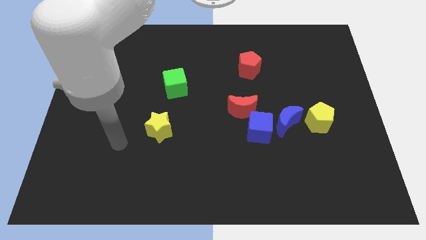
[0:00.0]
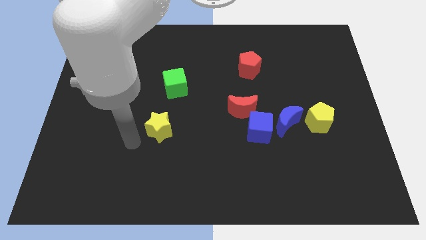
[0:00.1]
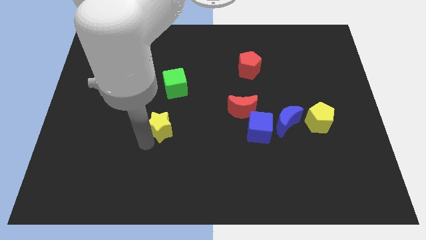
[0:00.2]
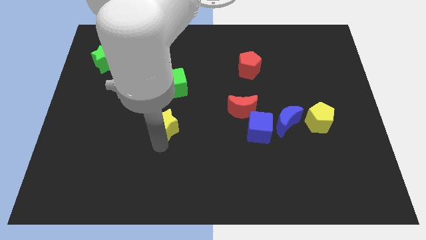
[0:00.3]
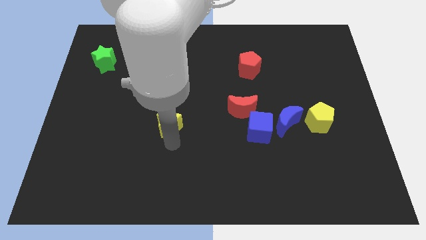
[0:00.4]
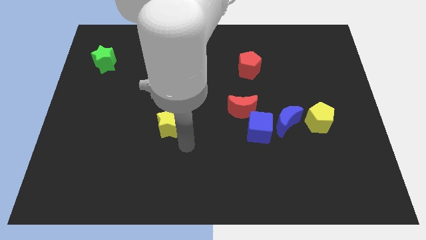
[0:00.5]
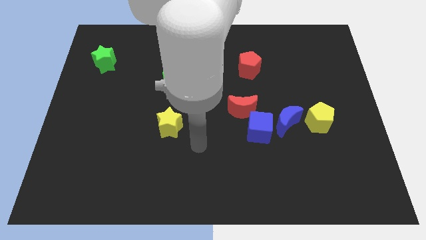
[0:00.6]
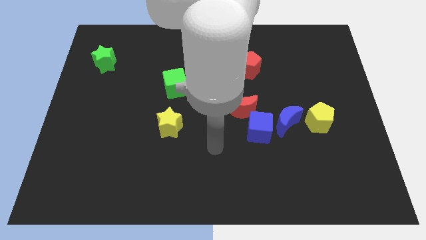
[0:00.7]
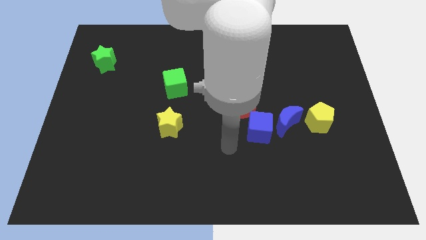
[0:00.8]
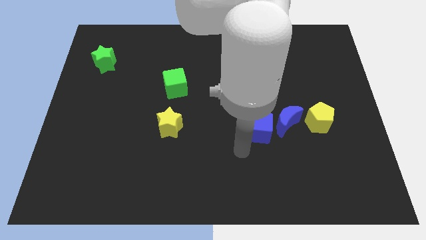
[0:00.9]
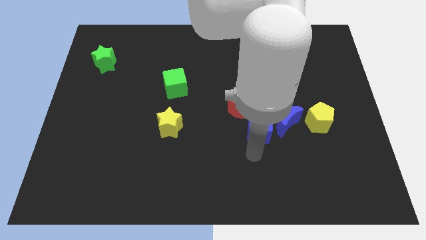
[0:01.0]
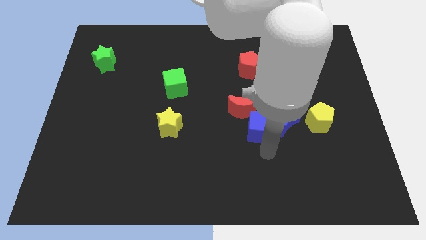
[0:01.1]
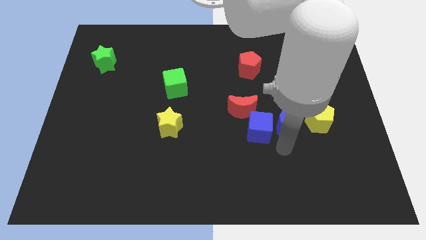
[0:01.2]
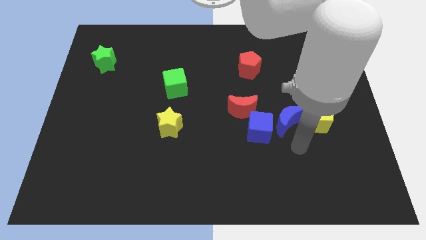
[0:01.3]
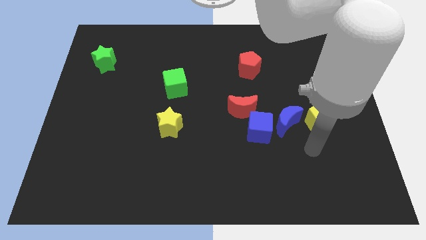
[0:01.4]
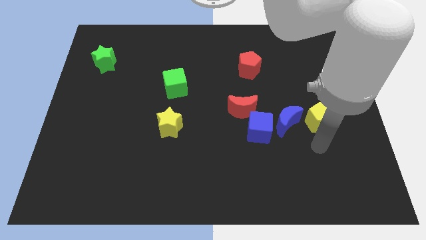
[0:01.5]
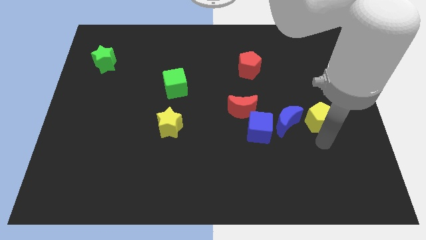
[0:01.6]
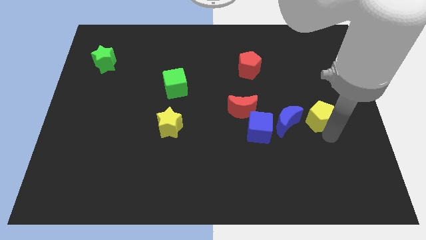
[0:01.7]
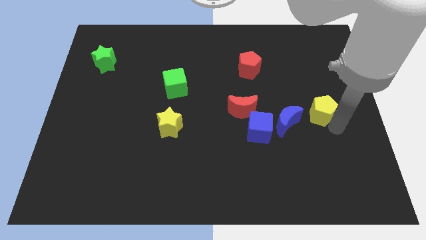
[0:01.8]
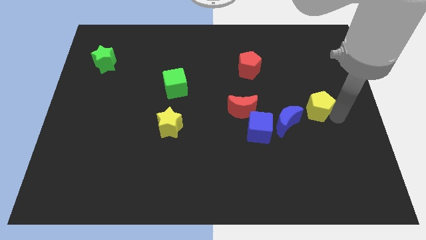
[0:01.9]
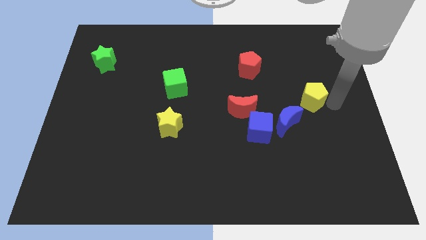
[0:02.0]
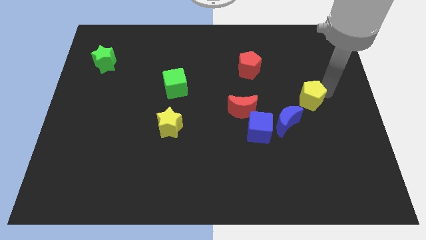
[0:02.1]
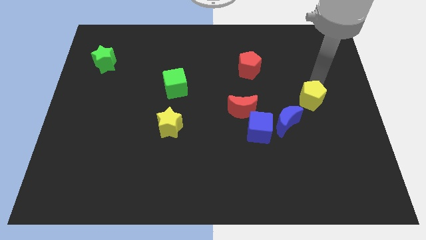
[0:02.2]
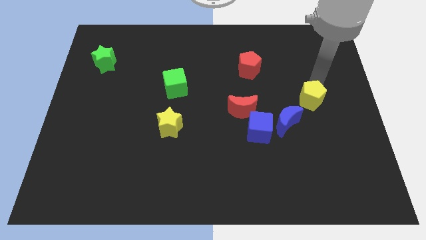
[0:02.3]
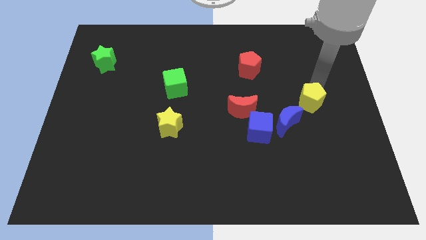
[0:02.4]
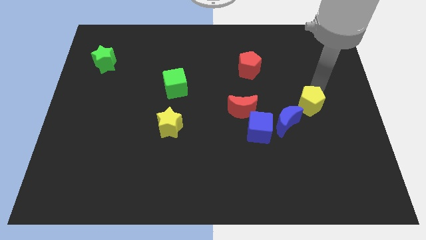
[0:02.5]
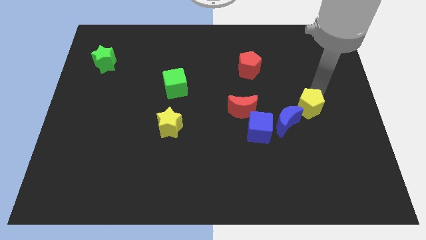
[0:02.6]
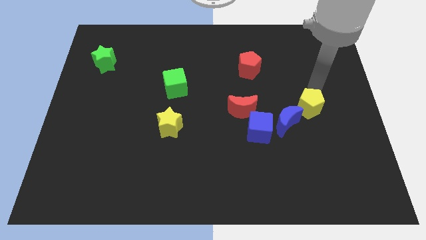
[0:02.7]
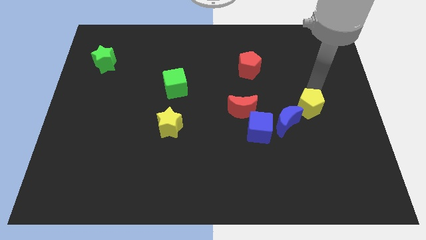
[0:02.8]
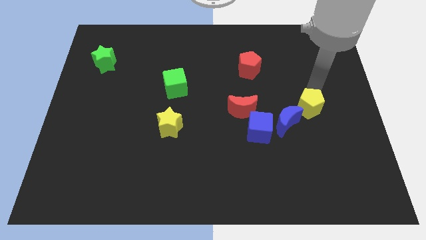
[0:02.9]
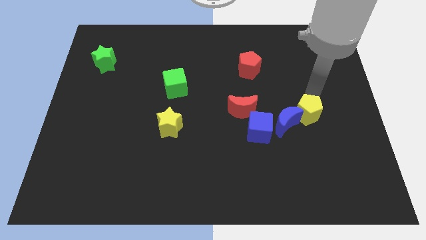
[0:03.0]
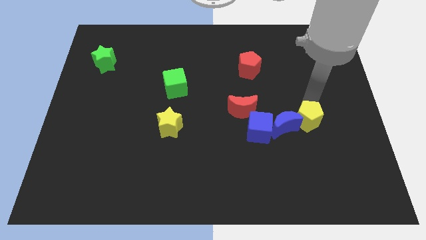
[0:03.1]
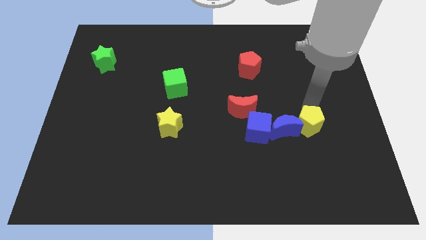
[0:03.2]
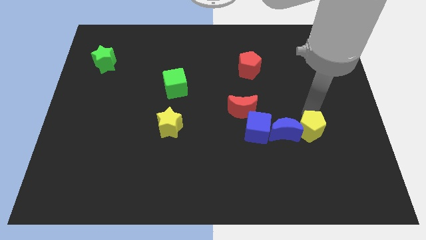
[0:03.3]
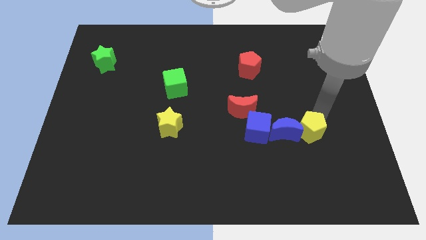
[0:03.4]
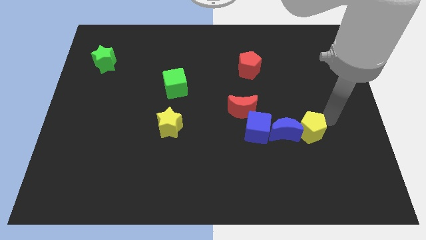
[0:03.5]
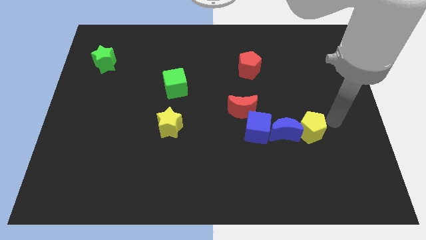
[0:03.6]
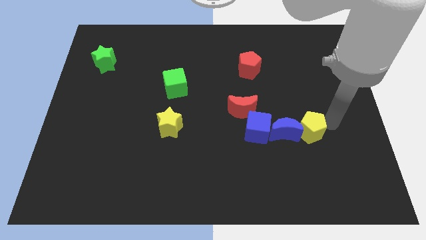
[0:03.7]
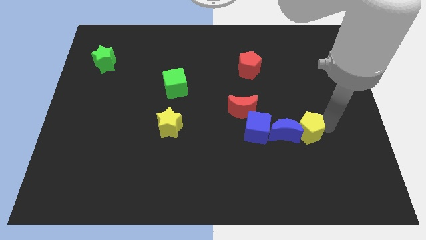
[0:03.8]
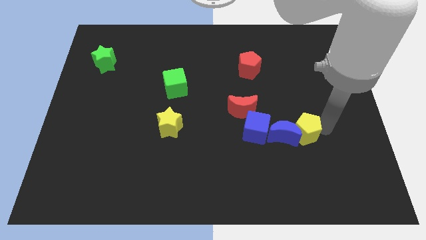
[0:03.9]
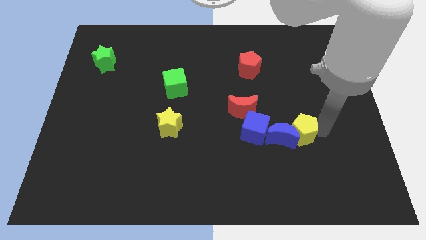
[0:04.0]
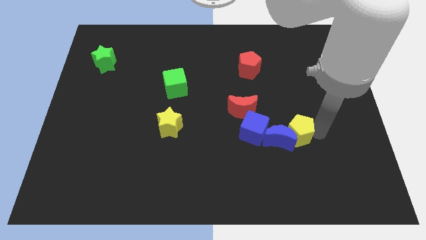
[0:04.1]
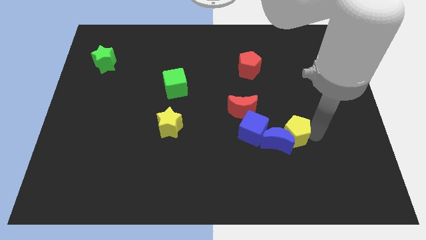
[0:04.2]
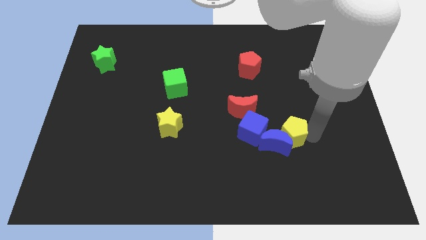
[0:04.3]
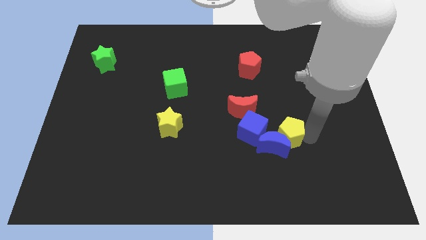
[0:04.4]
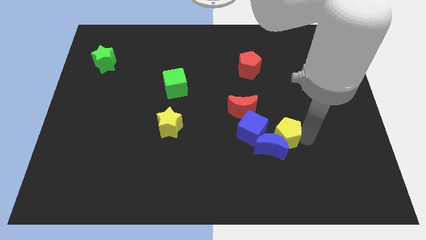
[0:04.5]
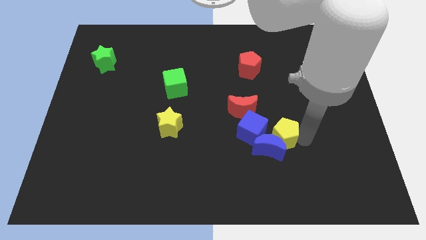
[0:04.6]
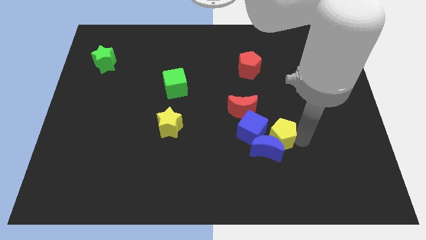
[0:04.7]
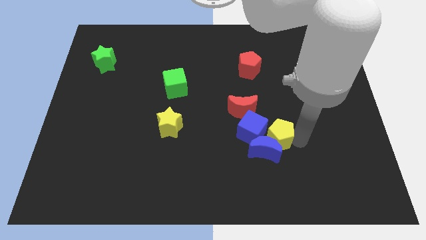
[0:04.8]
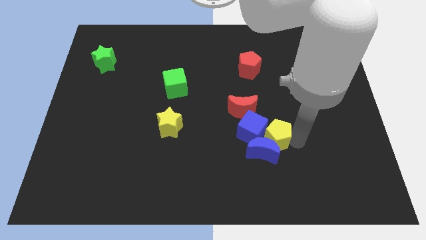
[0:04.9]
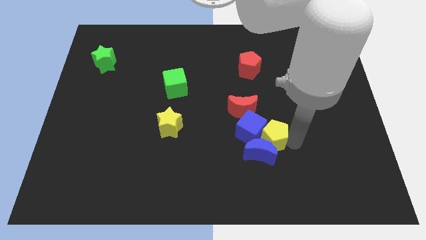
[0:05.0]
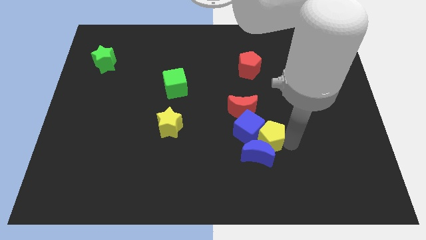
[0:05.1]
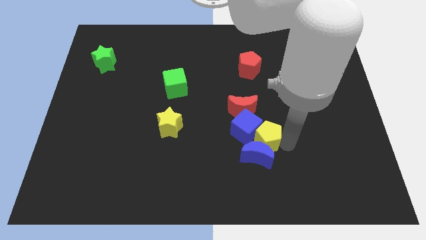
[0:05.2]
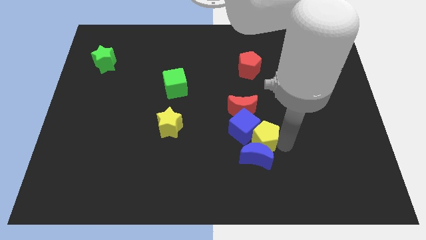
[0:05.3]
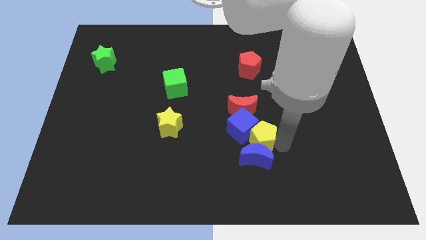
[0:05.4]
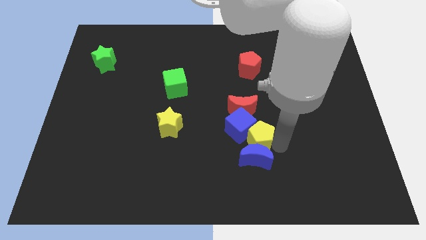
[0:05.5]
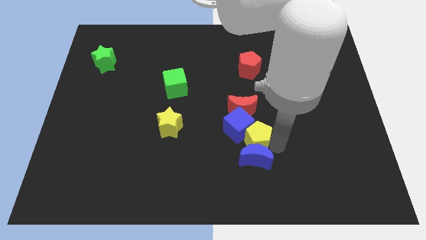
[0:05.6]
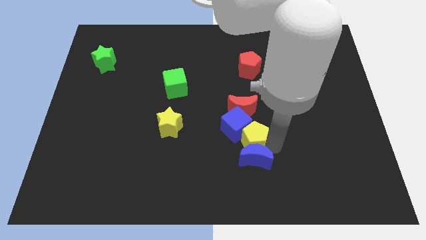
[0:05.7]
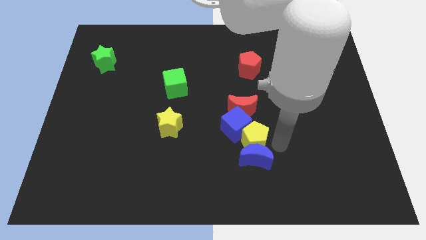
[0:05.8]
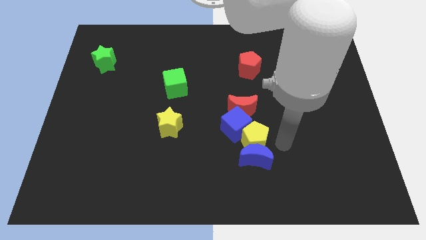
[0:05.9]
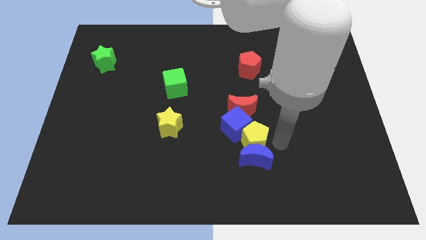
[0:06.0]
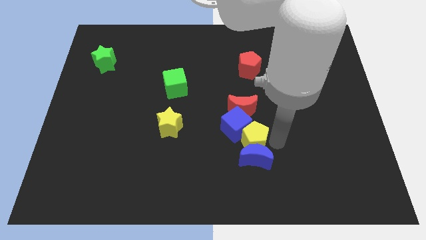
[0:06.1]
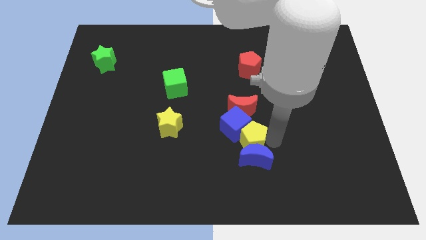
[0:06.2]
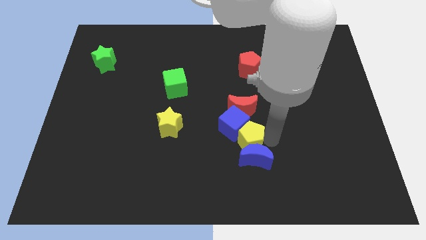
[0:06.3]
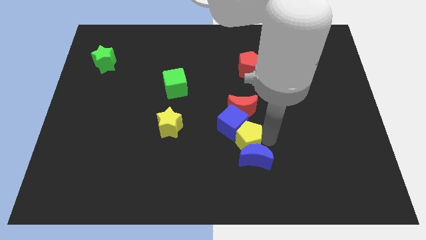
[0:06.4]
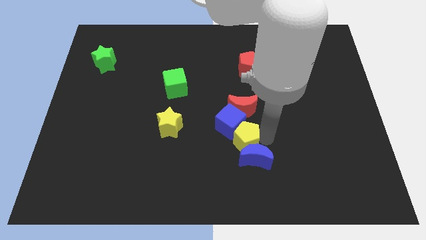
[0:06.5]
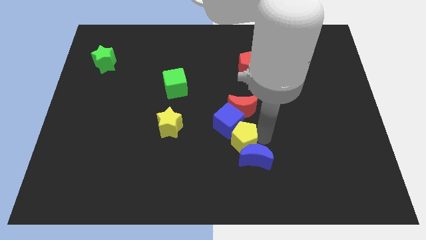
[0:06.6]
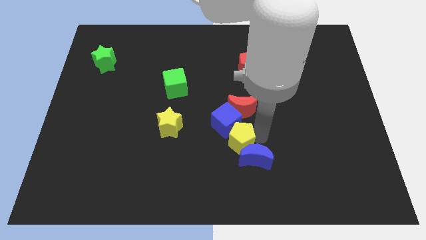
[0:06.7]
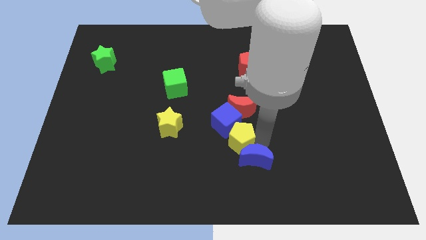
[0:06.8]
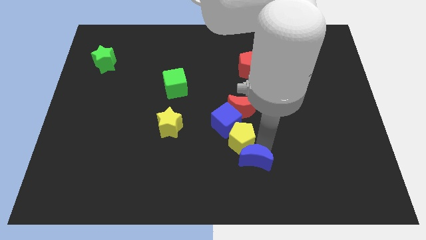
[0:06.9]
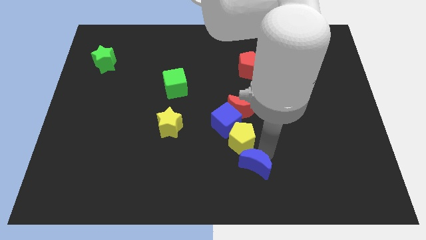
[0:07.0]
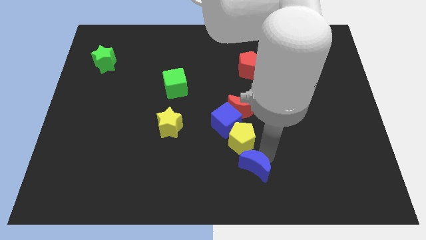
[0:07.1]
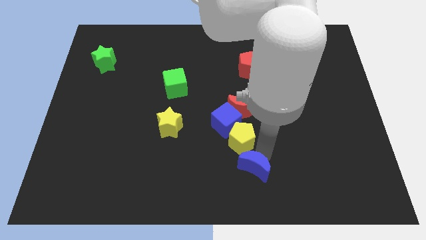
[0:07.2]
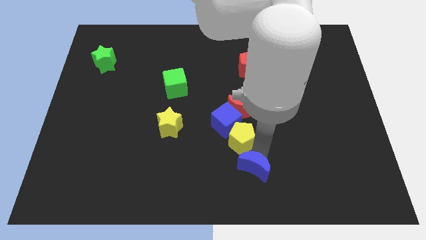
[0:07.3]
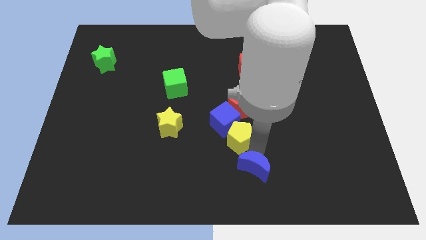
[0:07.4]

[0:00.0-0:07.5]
push the yellow pentagon to the bottom left of the red moon

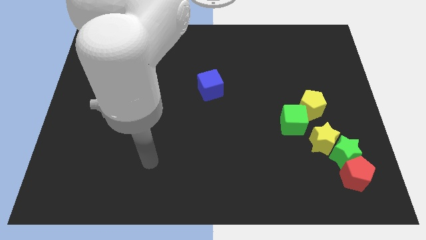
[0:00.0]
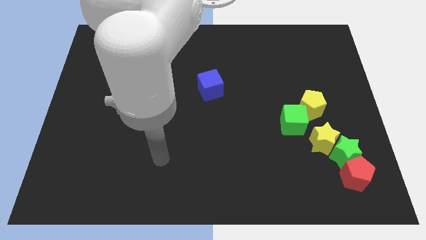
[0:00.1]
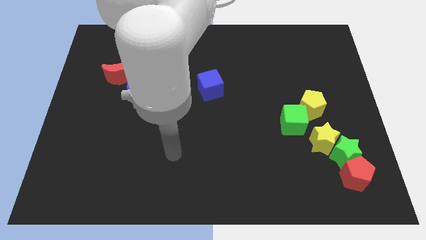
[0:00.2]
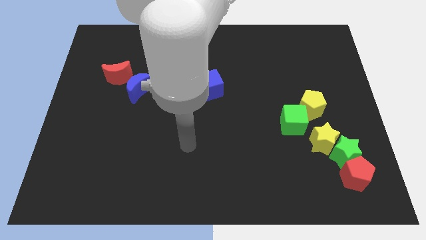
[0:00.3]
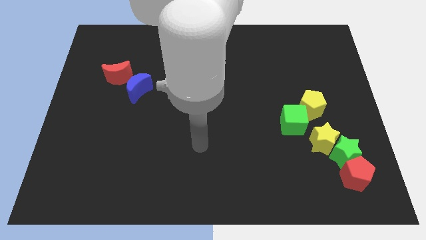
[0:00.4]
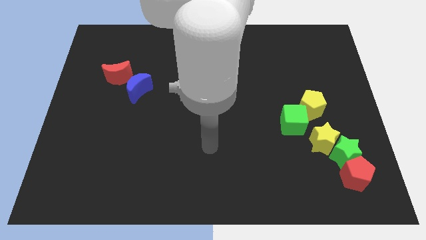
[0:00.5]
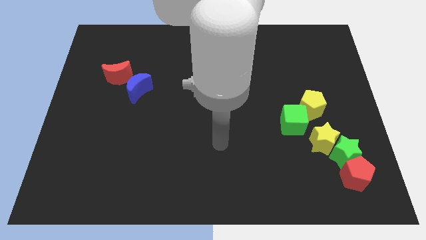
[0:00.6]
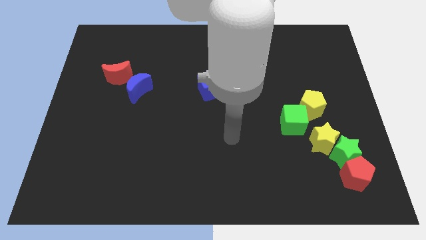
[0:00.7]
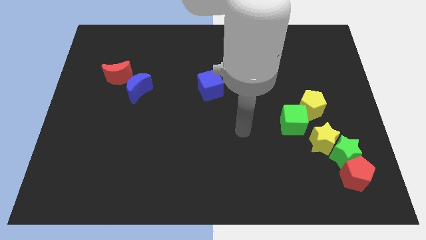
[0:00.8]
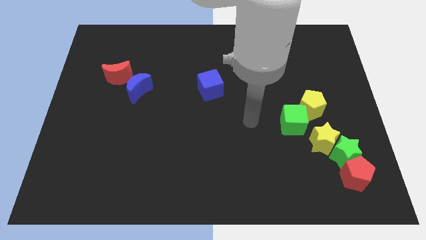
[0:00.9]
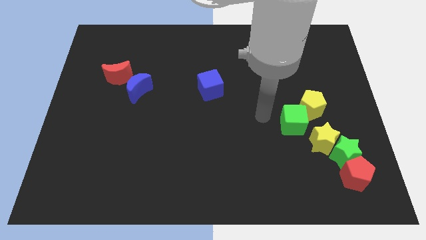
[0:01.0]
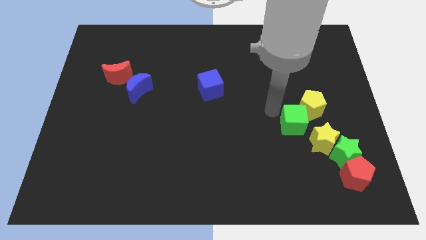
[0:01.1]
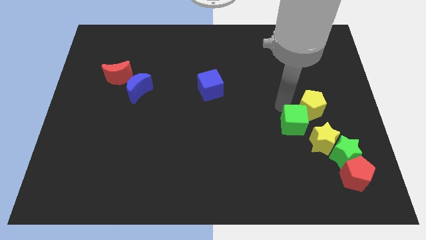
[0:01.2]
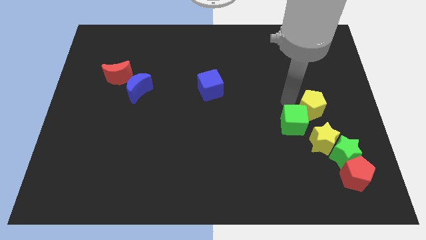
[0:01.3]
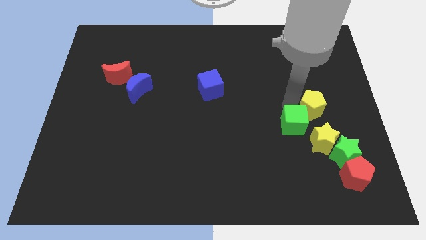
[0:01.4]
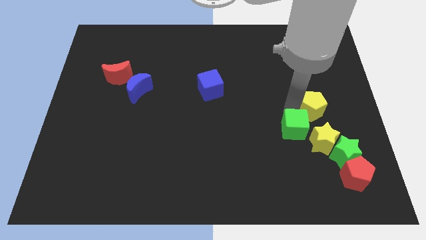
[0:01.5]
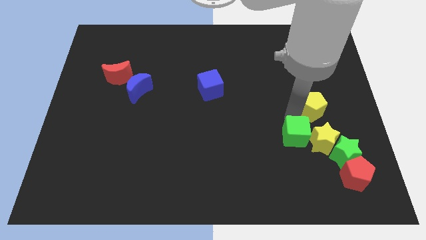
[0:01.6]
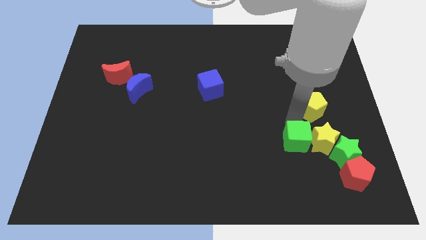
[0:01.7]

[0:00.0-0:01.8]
move the green cube to the bottom left of the yellow star
